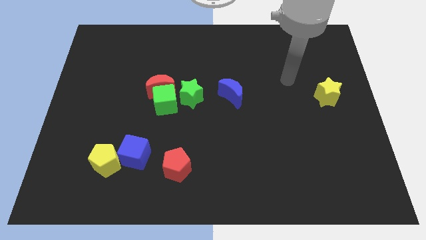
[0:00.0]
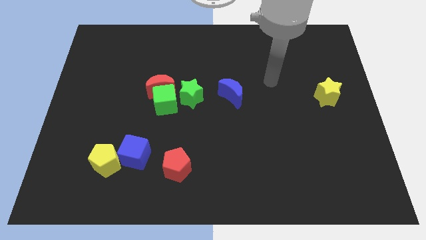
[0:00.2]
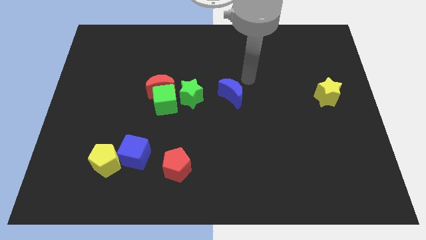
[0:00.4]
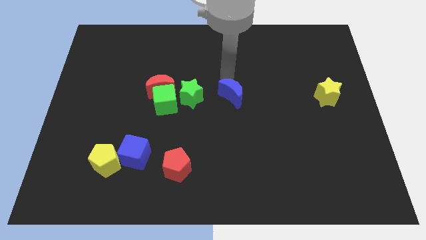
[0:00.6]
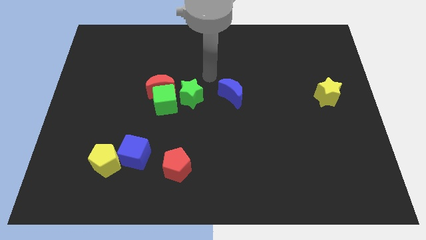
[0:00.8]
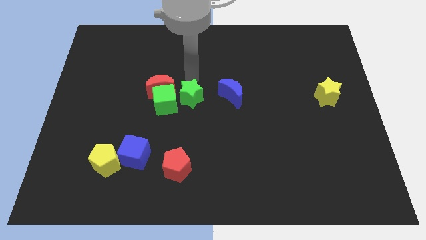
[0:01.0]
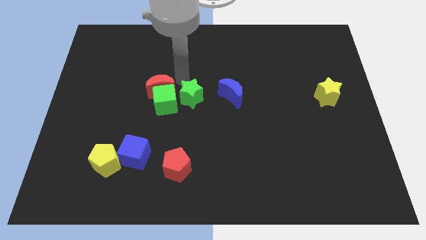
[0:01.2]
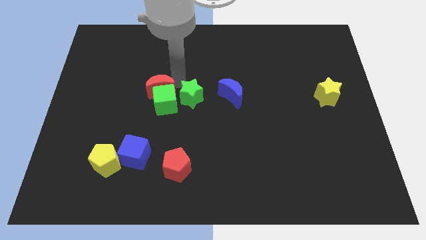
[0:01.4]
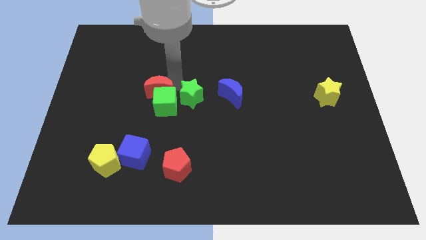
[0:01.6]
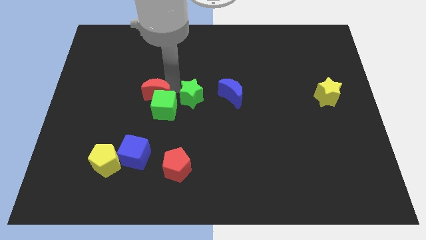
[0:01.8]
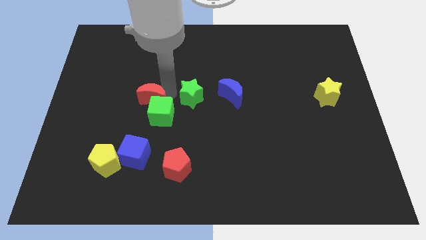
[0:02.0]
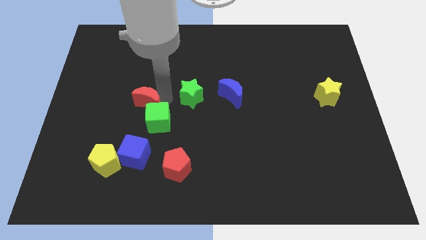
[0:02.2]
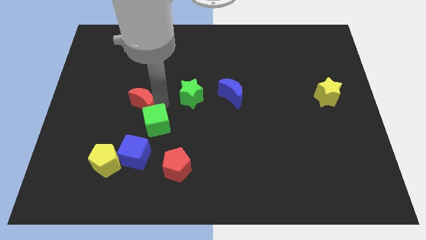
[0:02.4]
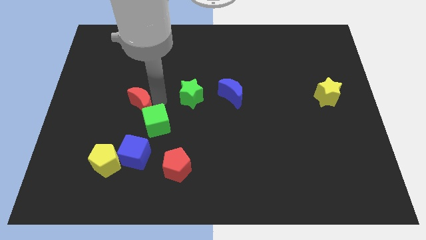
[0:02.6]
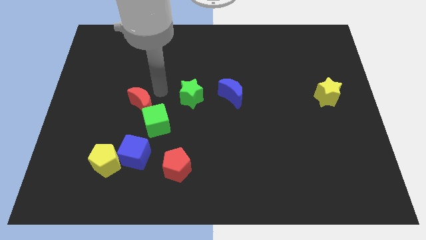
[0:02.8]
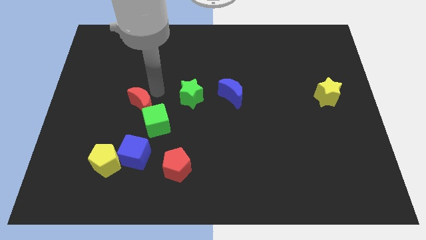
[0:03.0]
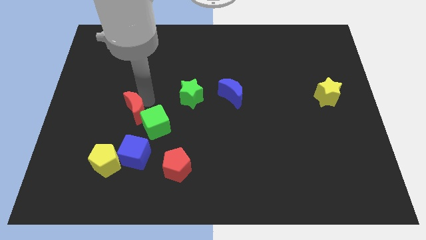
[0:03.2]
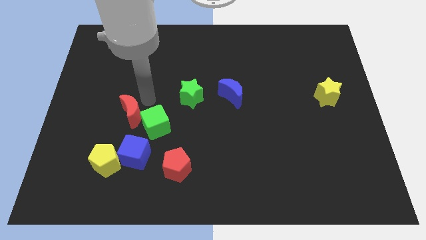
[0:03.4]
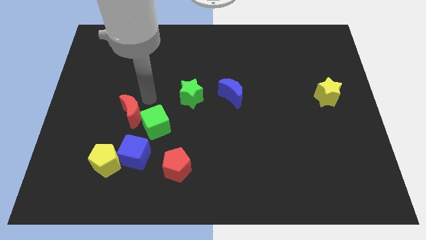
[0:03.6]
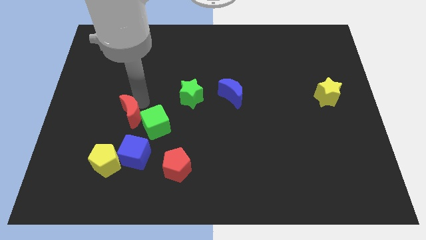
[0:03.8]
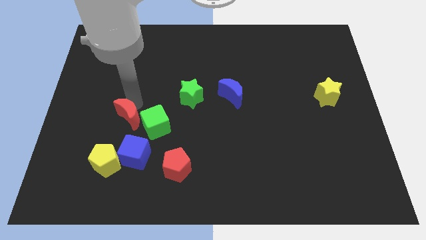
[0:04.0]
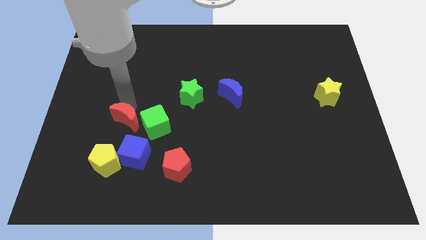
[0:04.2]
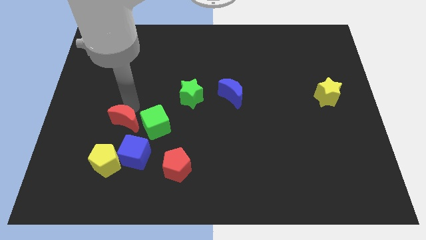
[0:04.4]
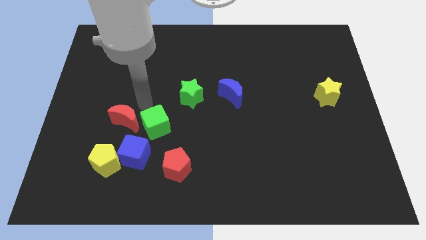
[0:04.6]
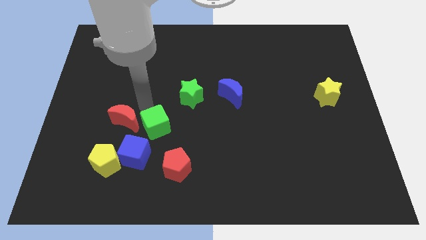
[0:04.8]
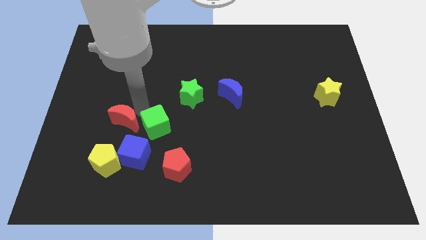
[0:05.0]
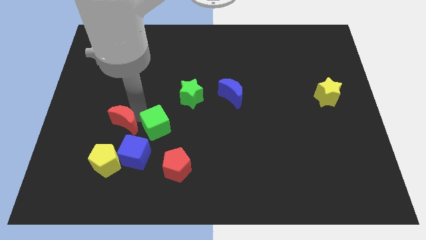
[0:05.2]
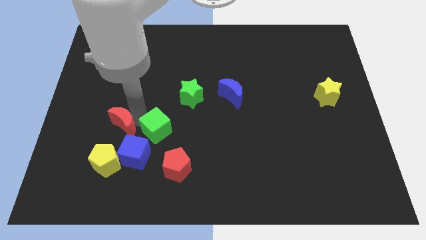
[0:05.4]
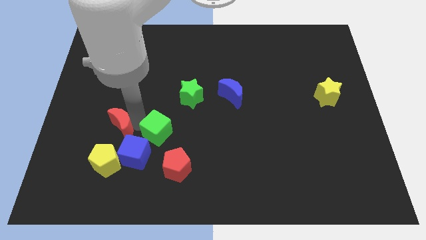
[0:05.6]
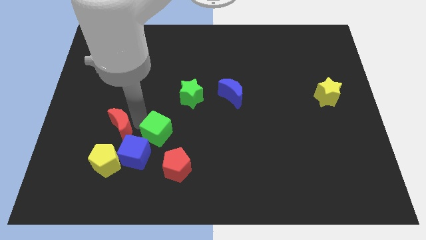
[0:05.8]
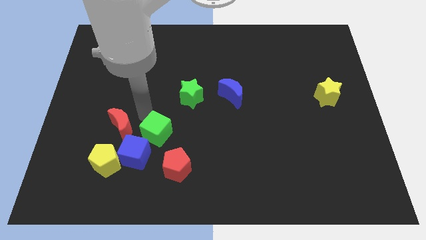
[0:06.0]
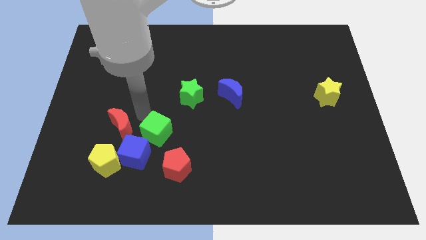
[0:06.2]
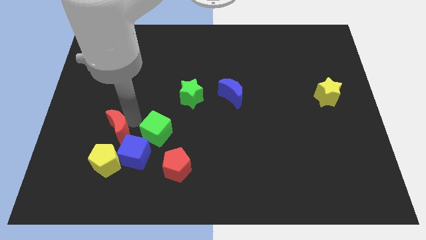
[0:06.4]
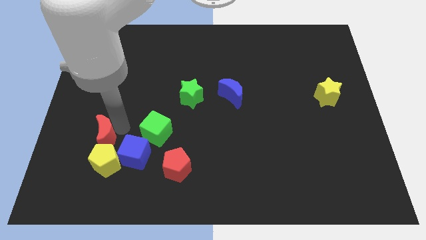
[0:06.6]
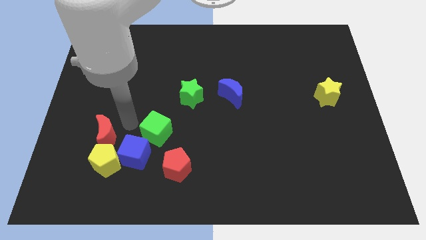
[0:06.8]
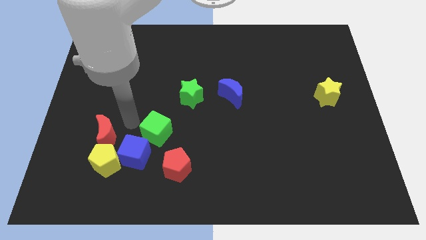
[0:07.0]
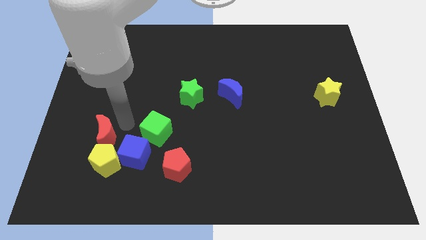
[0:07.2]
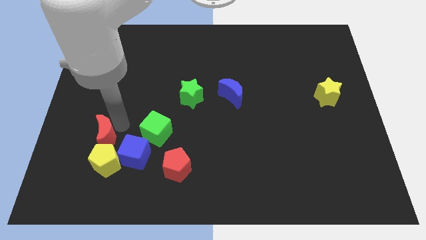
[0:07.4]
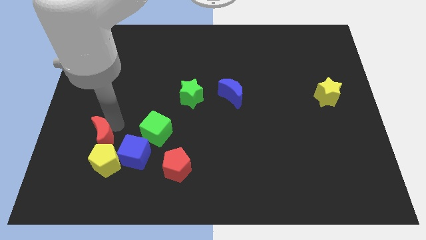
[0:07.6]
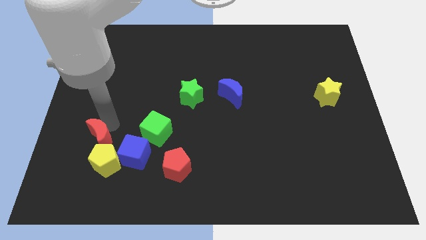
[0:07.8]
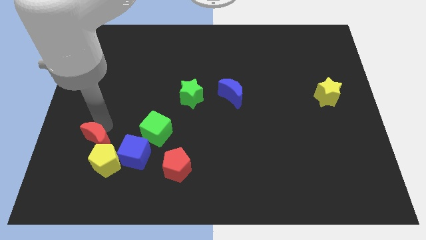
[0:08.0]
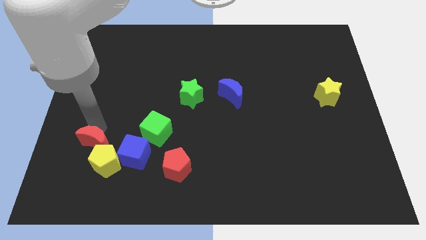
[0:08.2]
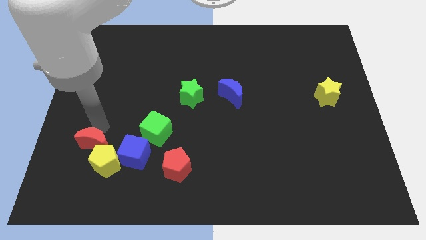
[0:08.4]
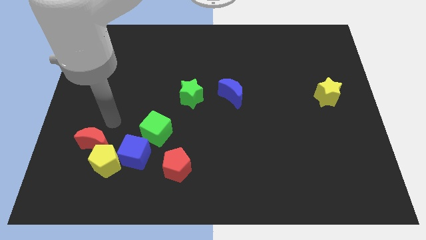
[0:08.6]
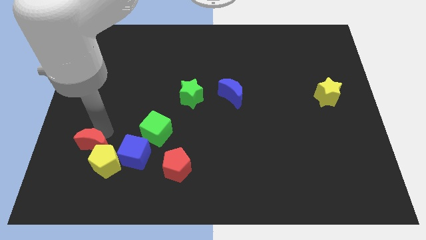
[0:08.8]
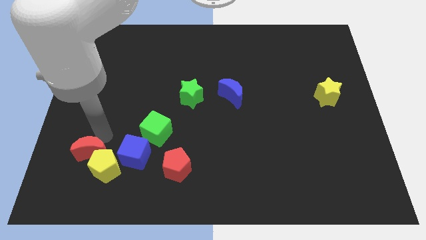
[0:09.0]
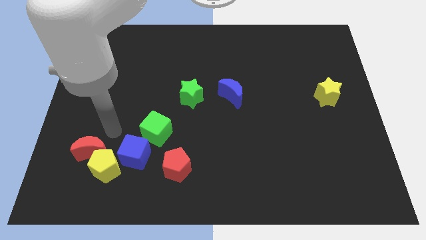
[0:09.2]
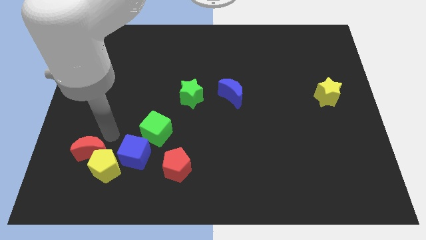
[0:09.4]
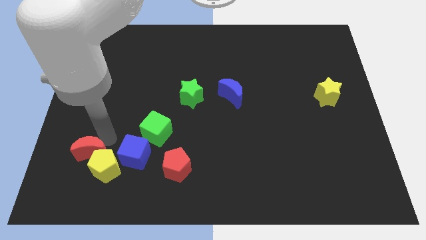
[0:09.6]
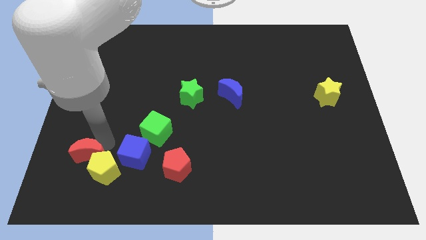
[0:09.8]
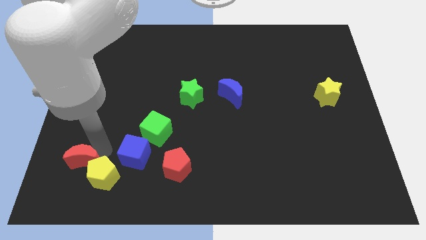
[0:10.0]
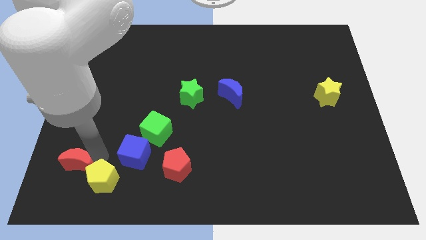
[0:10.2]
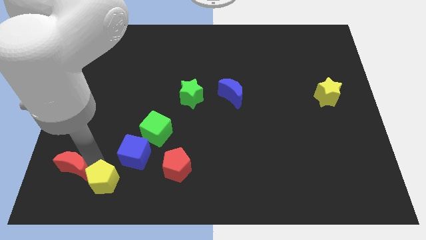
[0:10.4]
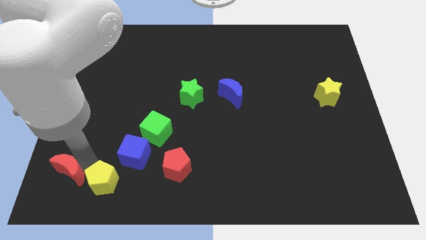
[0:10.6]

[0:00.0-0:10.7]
push the red moon to the bottom left

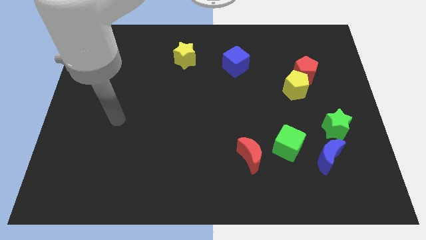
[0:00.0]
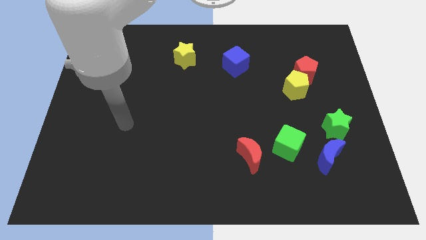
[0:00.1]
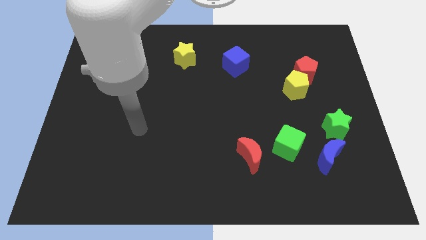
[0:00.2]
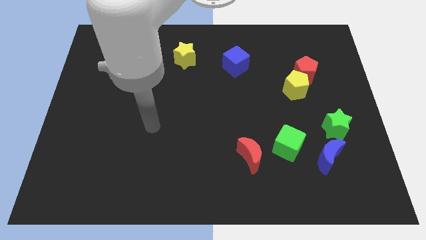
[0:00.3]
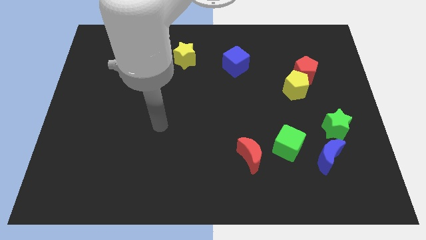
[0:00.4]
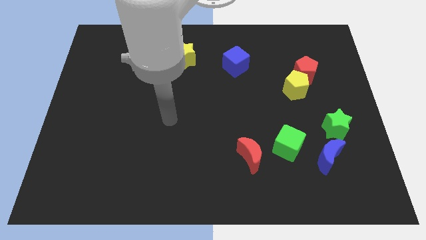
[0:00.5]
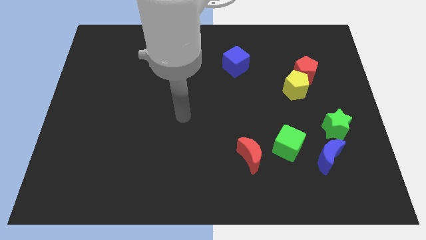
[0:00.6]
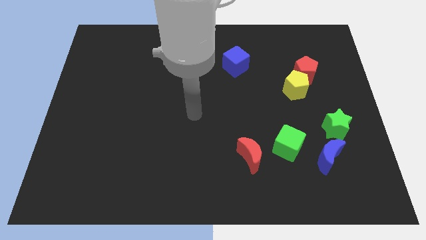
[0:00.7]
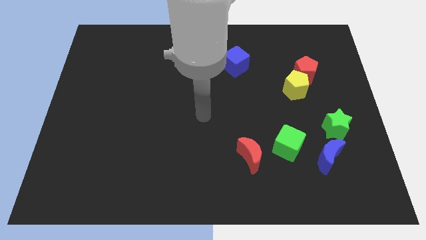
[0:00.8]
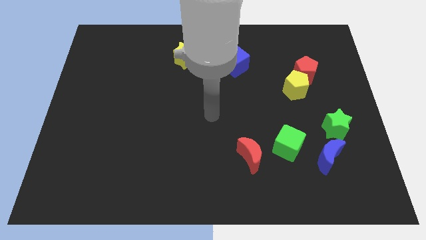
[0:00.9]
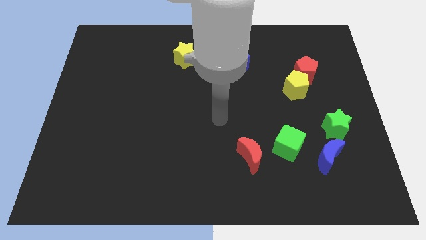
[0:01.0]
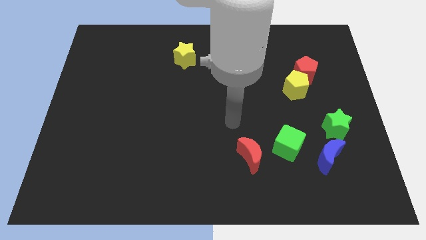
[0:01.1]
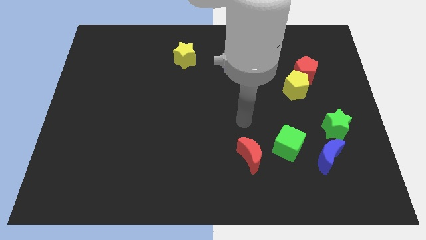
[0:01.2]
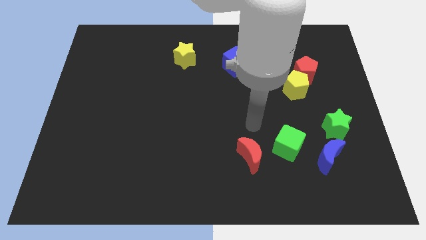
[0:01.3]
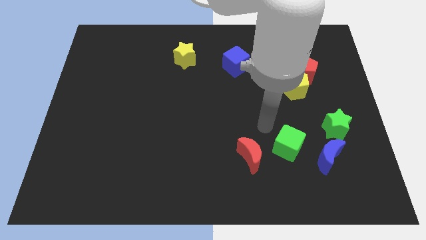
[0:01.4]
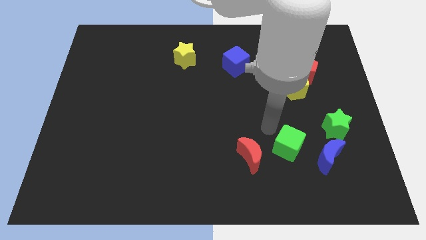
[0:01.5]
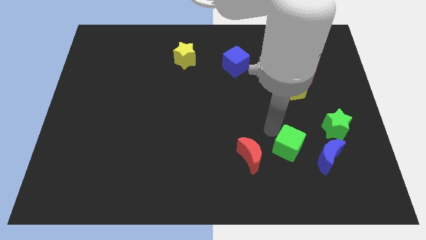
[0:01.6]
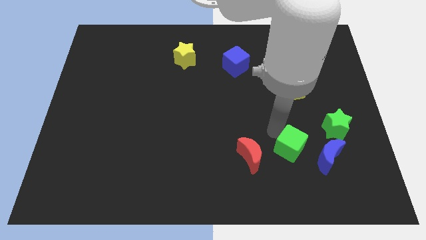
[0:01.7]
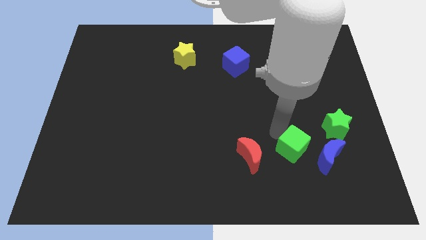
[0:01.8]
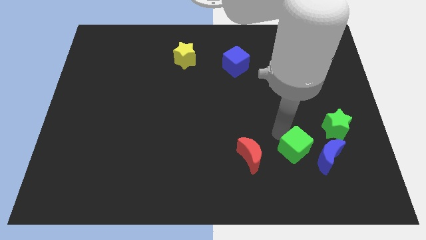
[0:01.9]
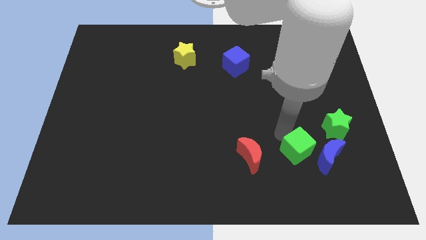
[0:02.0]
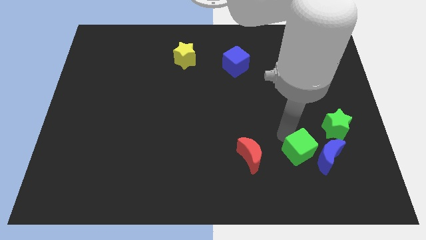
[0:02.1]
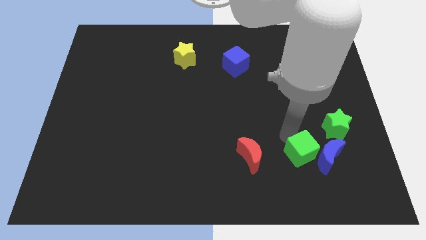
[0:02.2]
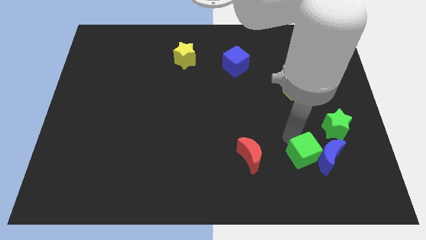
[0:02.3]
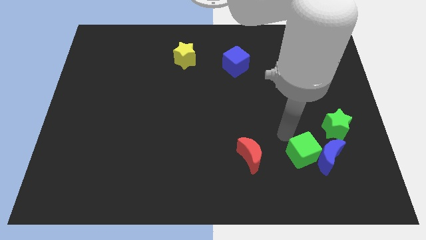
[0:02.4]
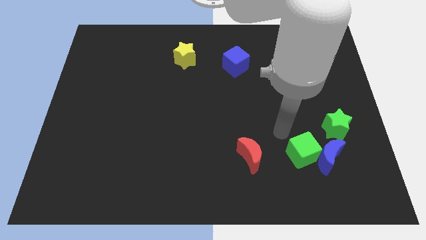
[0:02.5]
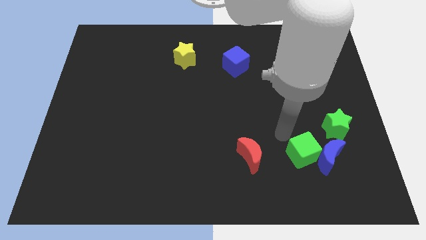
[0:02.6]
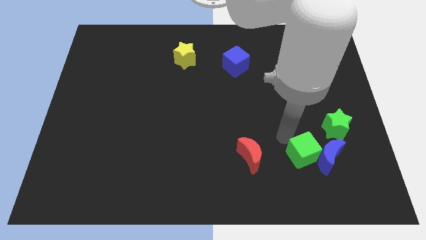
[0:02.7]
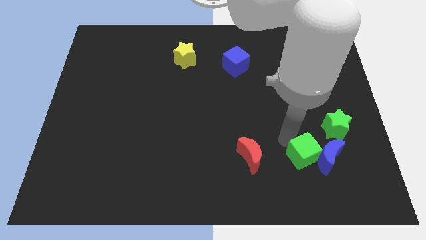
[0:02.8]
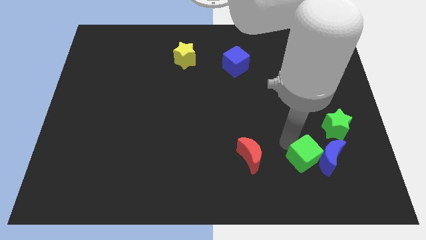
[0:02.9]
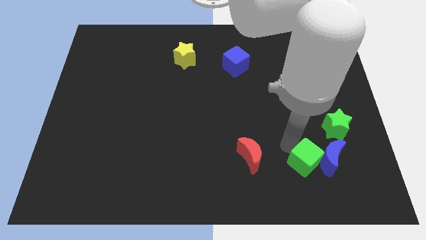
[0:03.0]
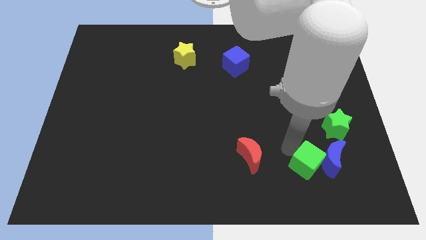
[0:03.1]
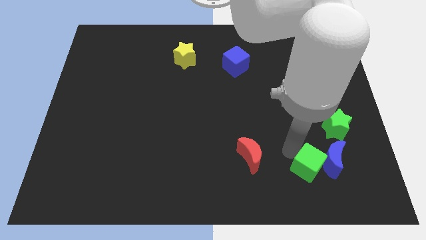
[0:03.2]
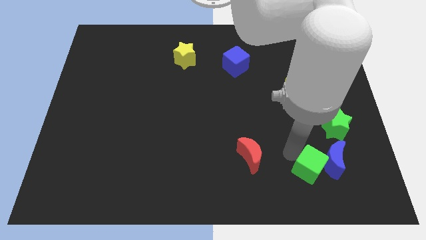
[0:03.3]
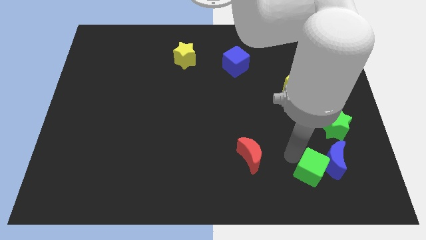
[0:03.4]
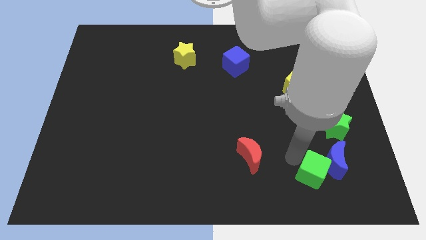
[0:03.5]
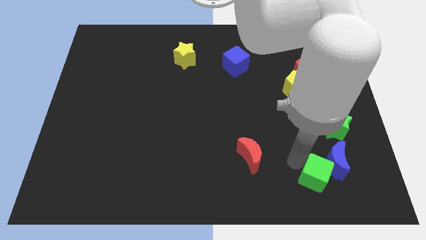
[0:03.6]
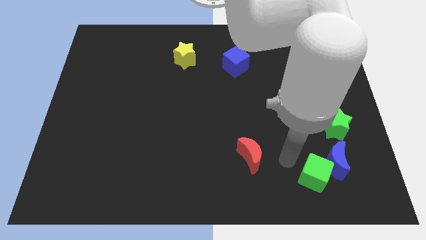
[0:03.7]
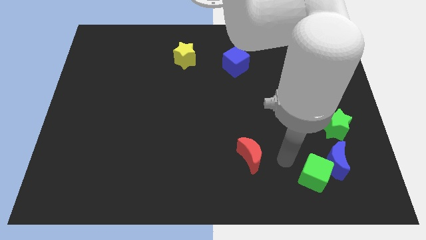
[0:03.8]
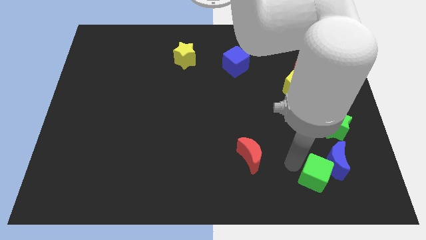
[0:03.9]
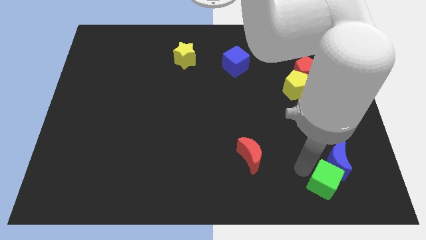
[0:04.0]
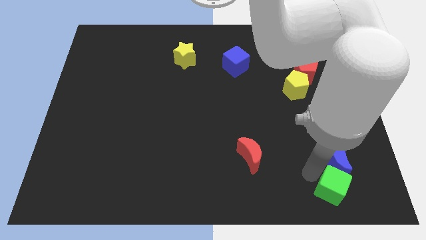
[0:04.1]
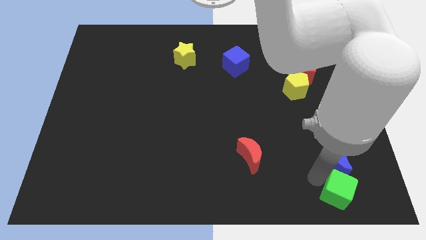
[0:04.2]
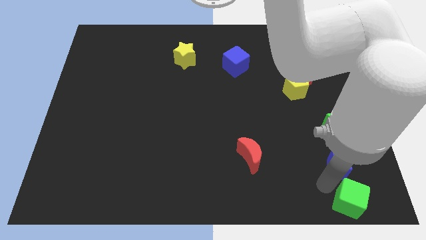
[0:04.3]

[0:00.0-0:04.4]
move the green cube to the bottom right corner
